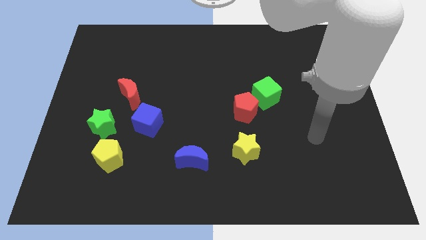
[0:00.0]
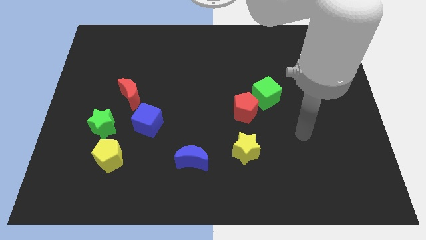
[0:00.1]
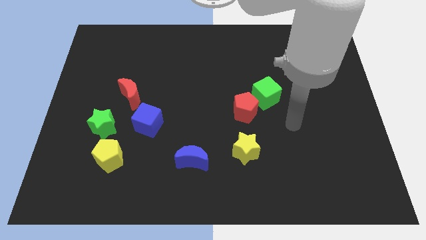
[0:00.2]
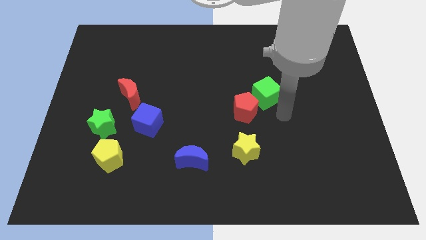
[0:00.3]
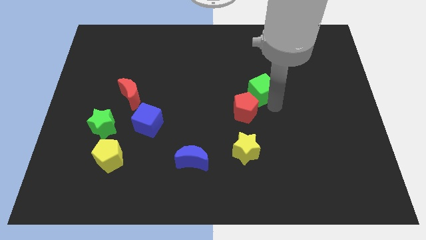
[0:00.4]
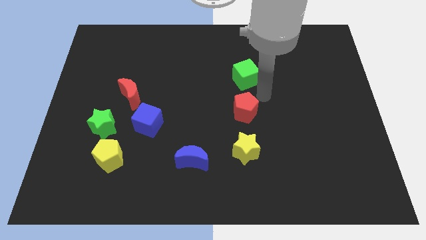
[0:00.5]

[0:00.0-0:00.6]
separate the red pentagon from the green cube

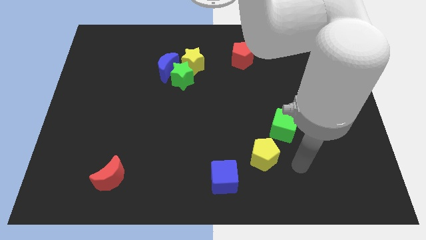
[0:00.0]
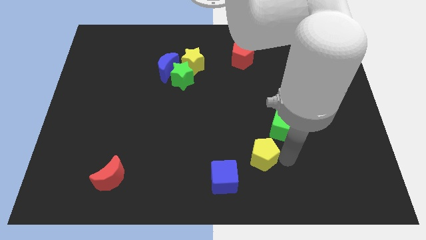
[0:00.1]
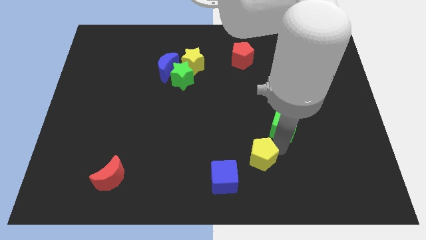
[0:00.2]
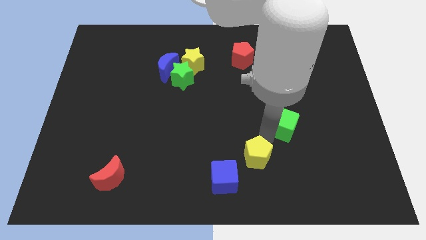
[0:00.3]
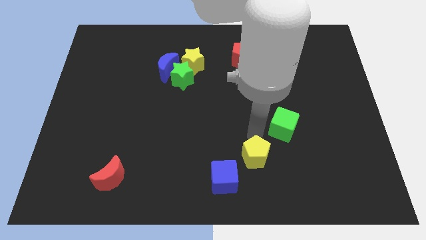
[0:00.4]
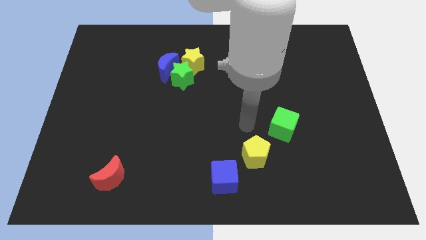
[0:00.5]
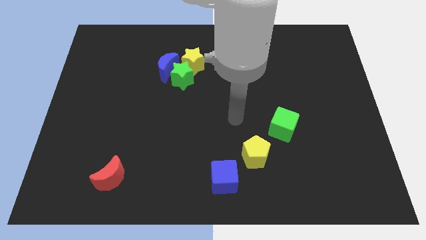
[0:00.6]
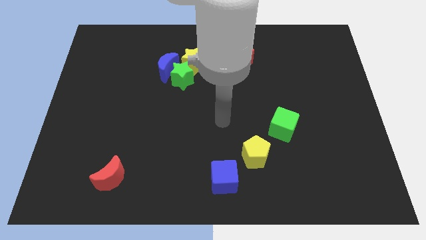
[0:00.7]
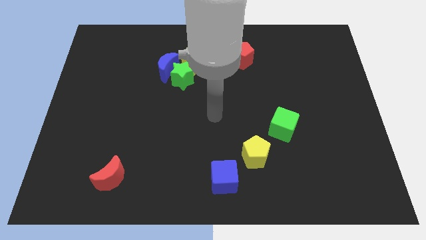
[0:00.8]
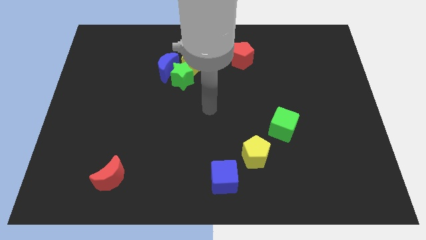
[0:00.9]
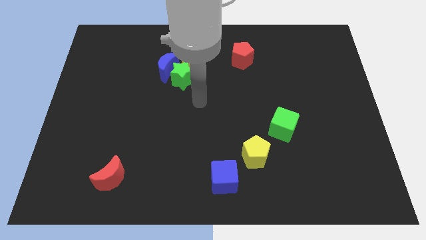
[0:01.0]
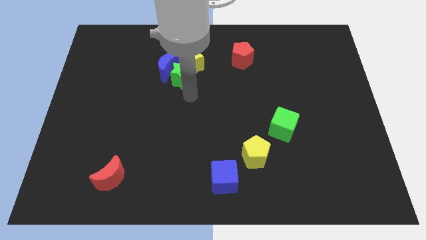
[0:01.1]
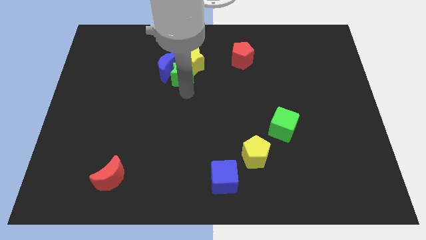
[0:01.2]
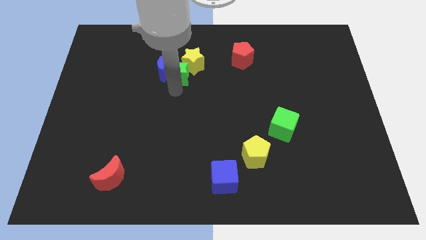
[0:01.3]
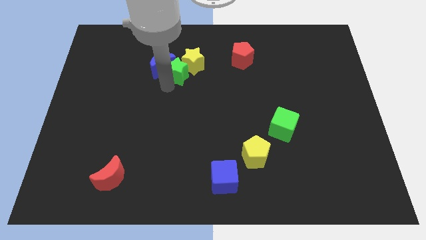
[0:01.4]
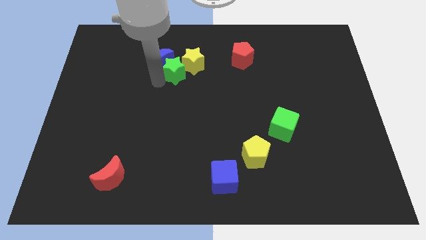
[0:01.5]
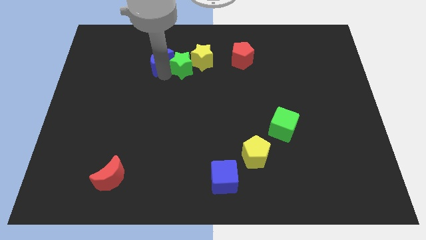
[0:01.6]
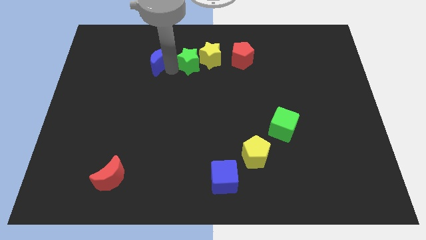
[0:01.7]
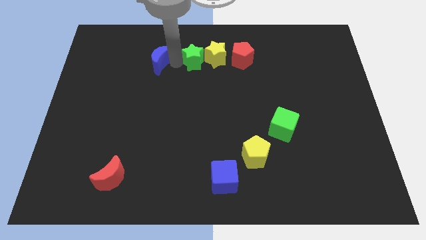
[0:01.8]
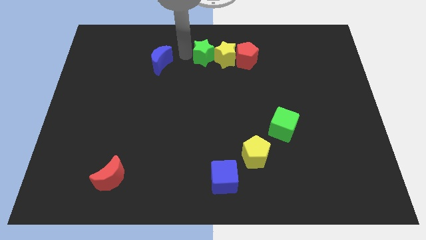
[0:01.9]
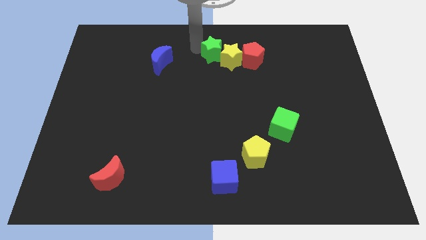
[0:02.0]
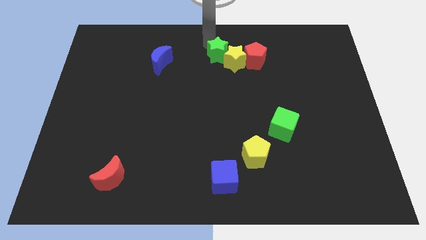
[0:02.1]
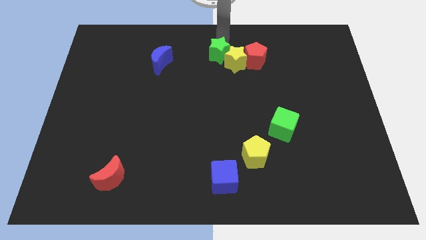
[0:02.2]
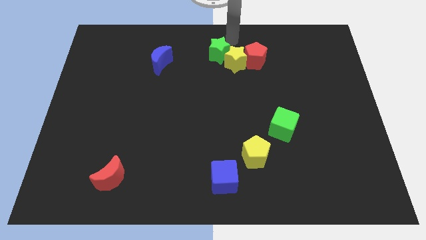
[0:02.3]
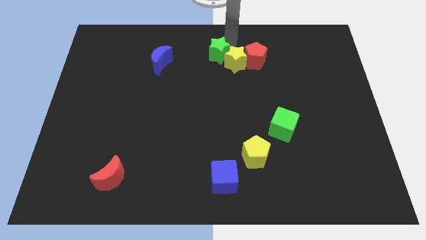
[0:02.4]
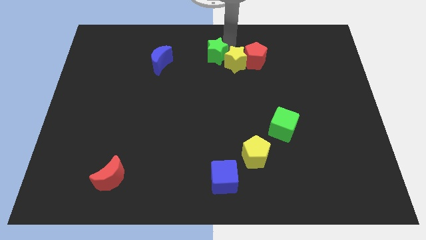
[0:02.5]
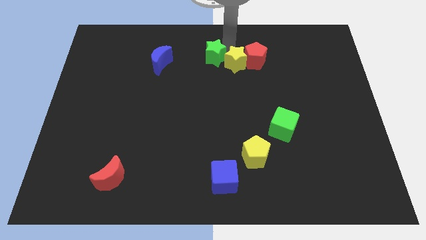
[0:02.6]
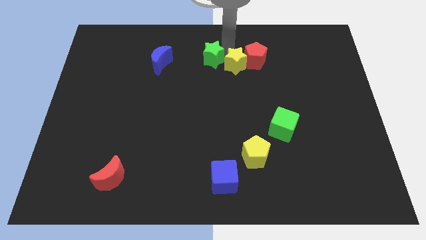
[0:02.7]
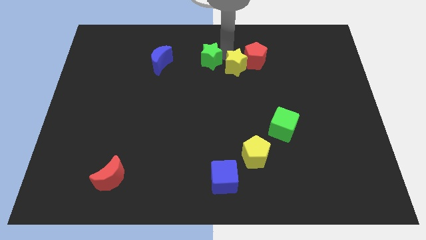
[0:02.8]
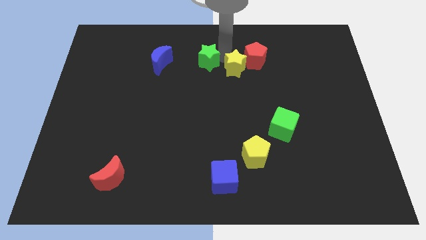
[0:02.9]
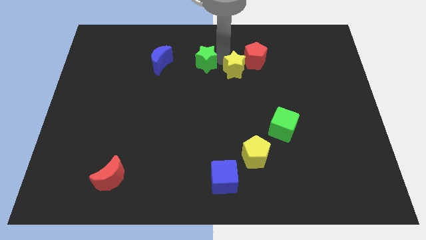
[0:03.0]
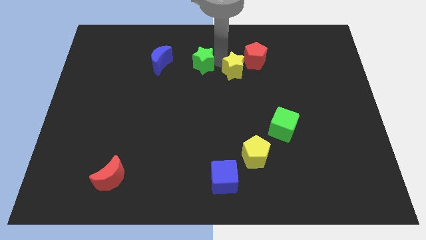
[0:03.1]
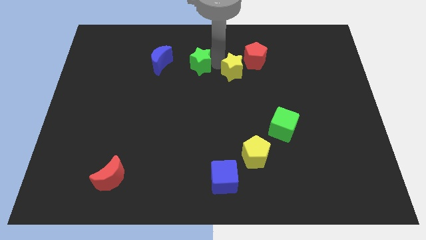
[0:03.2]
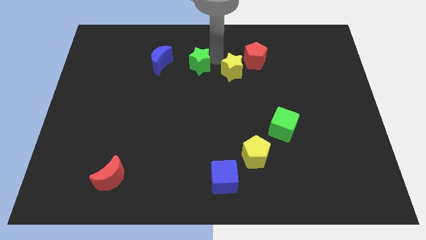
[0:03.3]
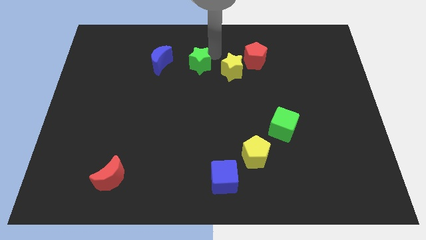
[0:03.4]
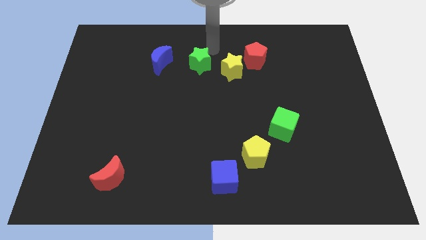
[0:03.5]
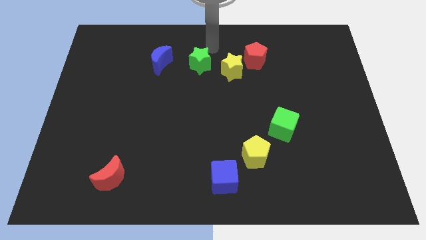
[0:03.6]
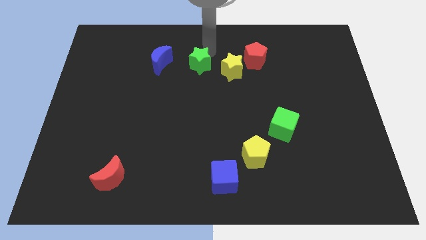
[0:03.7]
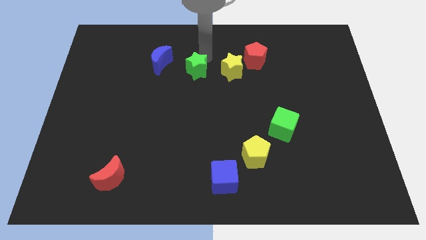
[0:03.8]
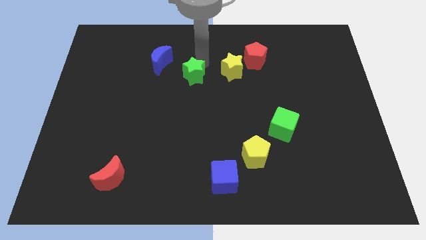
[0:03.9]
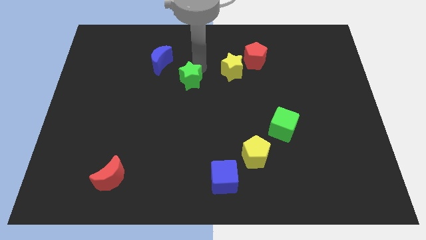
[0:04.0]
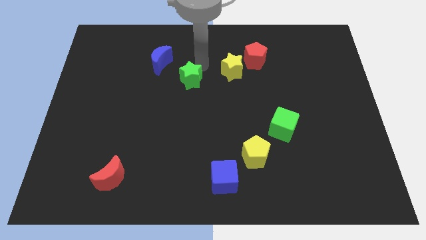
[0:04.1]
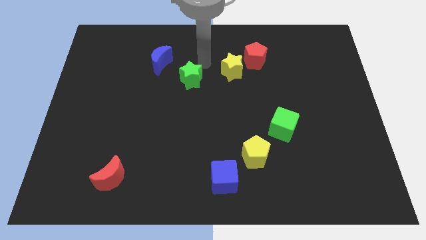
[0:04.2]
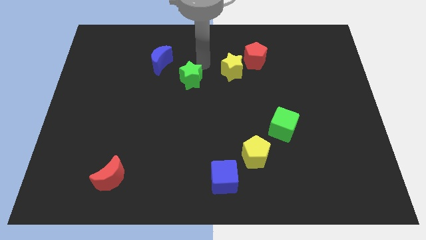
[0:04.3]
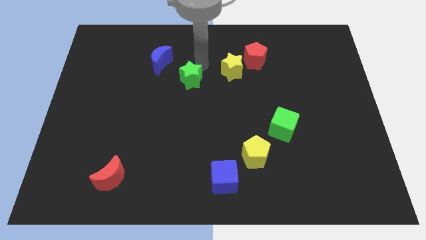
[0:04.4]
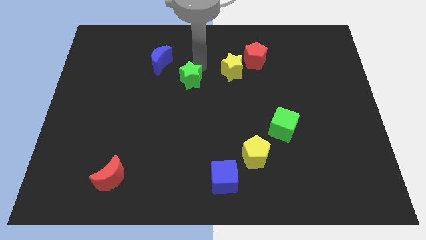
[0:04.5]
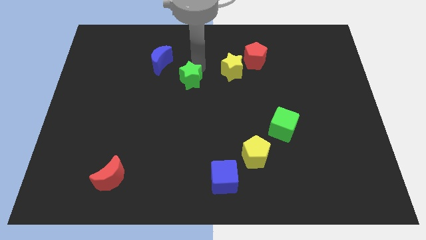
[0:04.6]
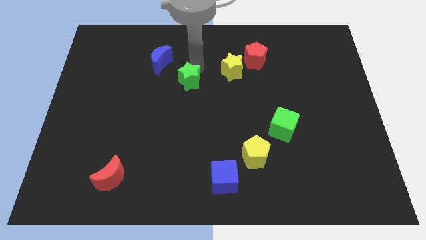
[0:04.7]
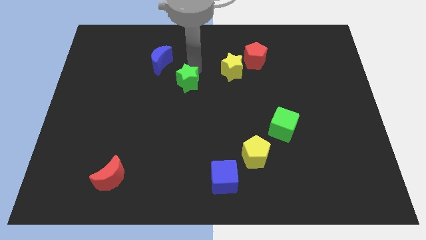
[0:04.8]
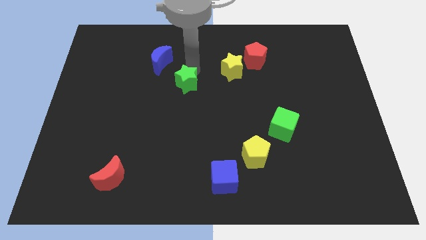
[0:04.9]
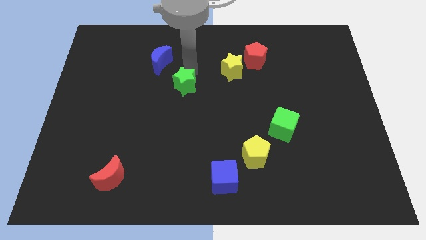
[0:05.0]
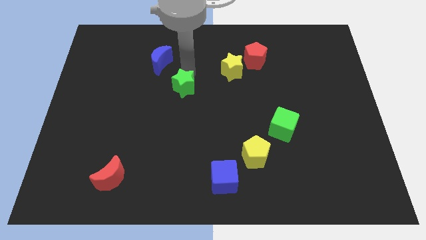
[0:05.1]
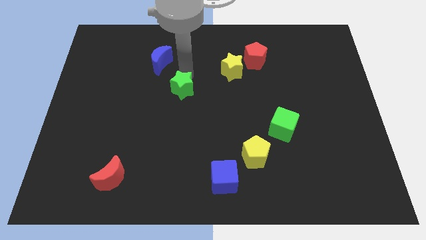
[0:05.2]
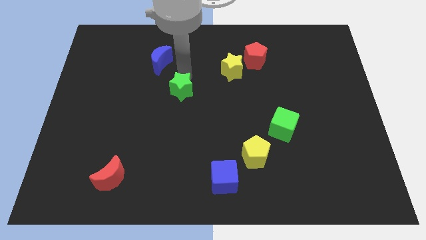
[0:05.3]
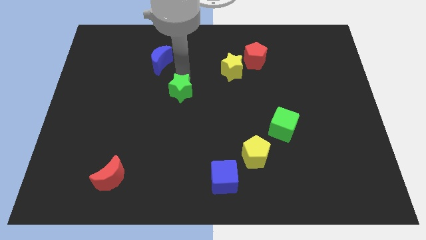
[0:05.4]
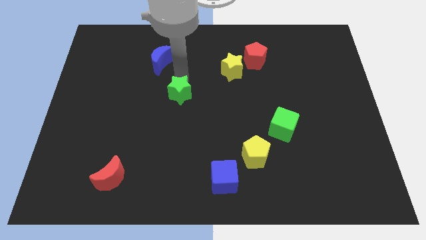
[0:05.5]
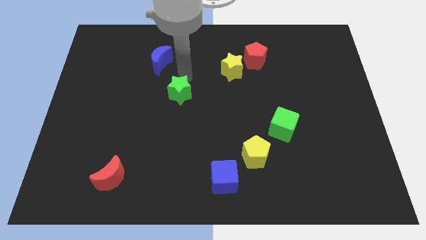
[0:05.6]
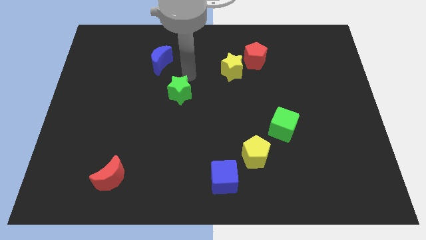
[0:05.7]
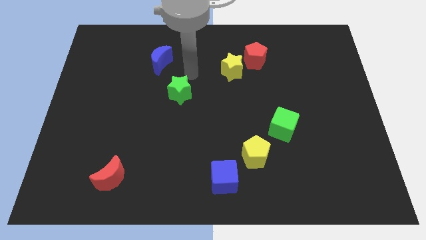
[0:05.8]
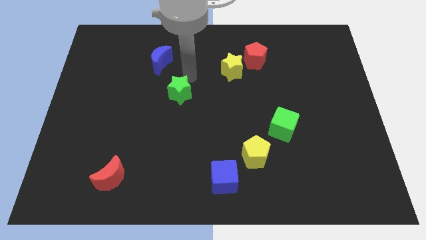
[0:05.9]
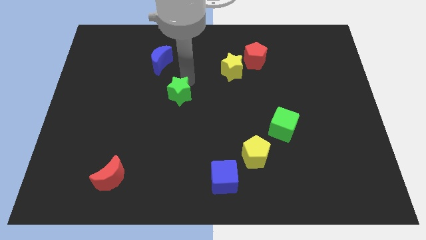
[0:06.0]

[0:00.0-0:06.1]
separate the green star from the blue moon and yellow star

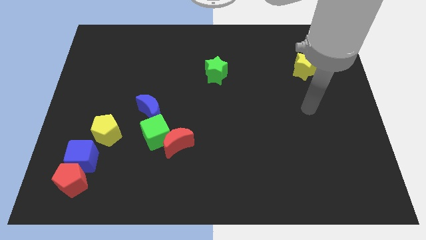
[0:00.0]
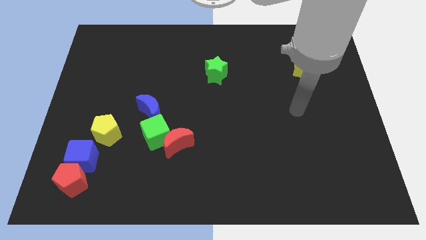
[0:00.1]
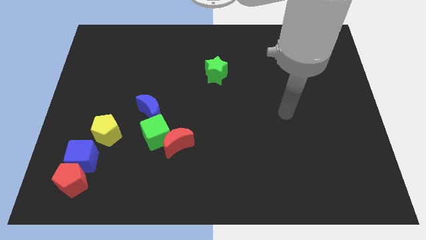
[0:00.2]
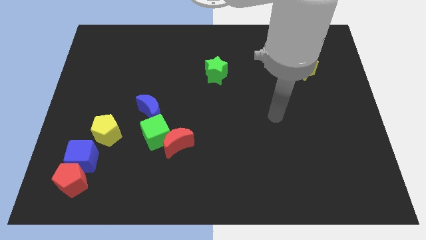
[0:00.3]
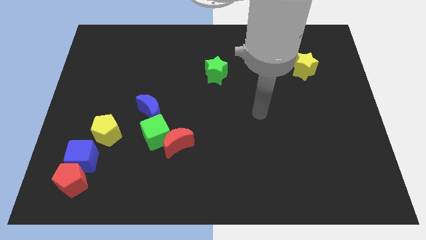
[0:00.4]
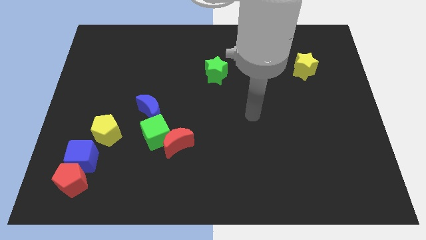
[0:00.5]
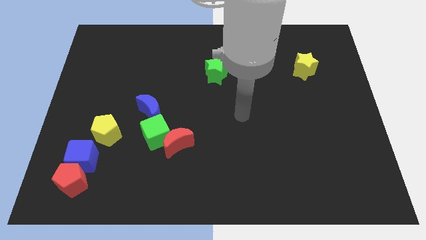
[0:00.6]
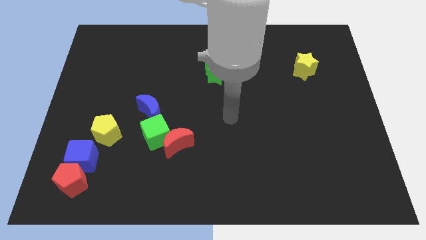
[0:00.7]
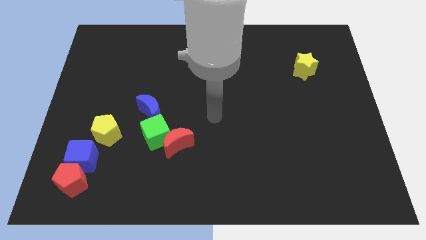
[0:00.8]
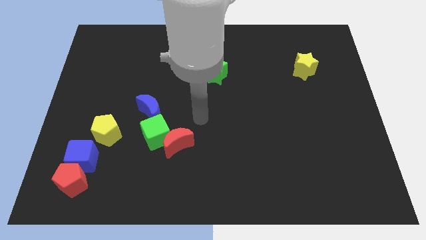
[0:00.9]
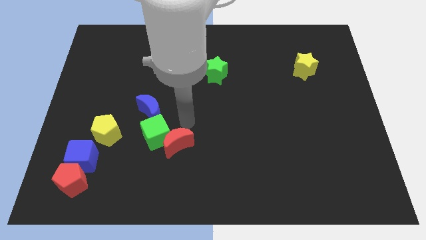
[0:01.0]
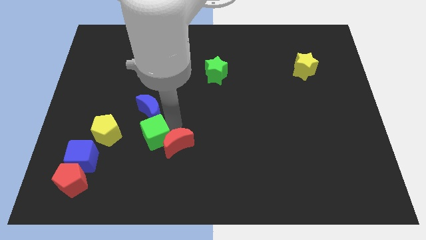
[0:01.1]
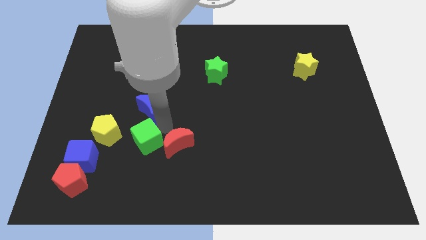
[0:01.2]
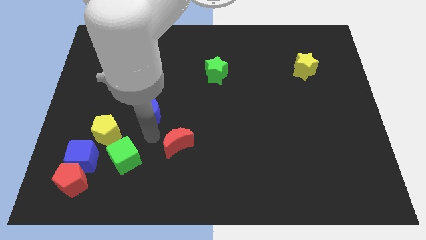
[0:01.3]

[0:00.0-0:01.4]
separate the red moon from the green cube

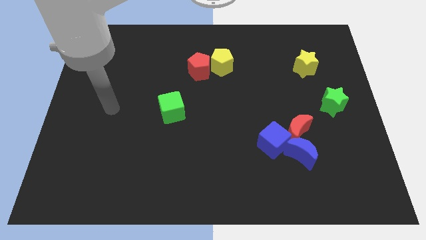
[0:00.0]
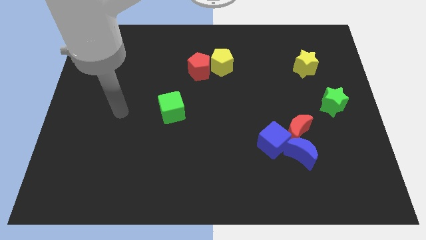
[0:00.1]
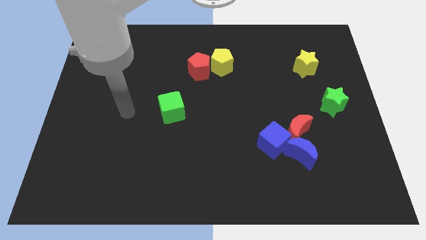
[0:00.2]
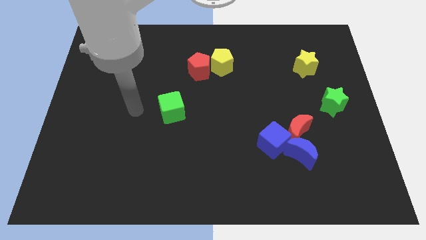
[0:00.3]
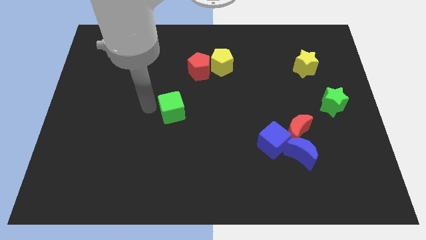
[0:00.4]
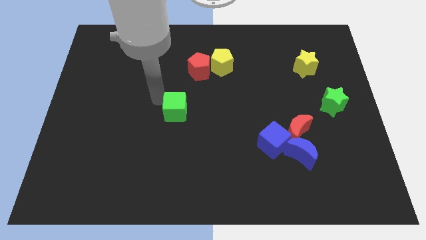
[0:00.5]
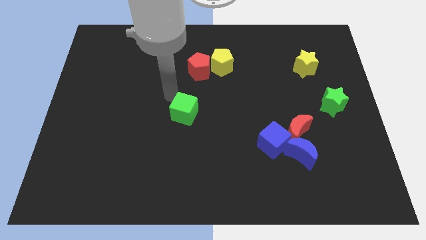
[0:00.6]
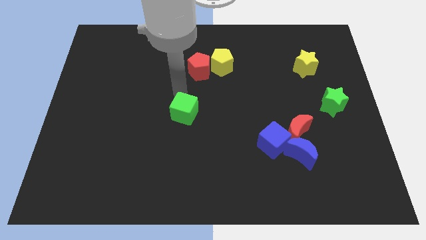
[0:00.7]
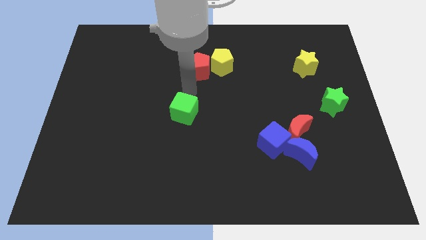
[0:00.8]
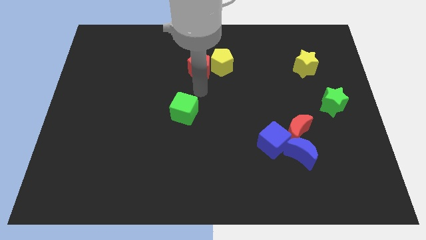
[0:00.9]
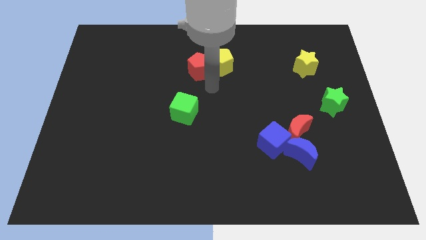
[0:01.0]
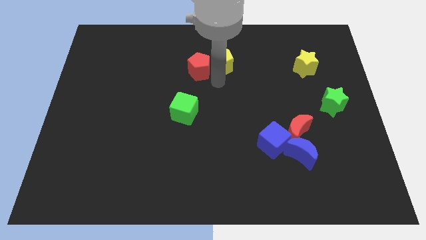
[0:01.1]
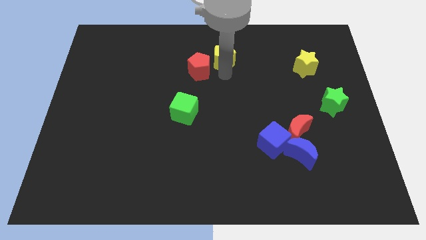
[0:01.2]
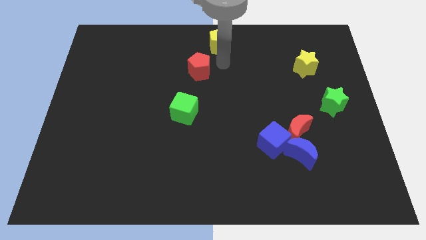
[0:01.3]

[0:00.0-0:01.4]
move the red pentagon away from the yellow pentagon

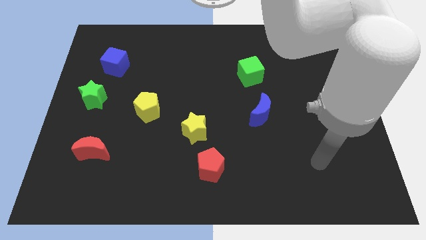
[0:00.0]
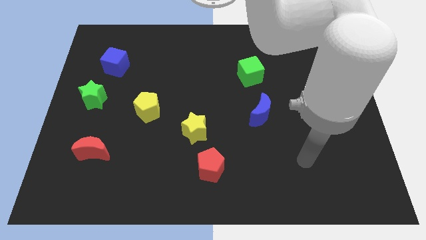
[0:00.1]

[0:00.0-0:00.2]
separate the red pentagon from the yellow star
